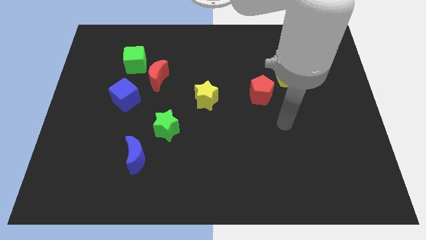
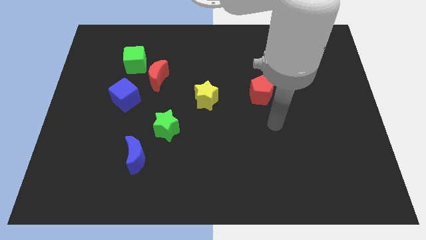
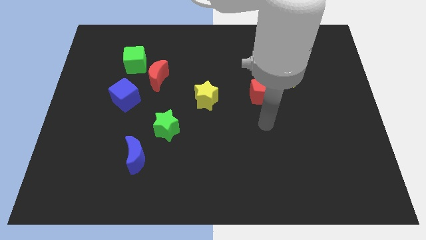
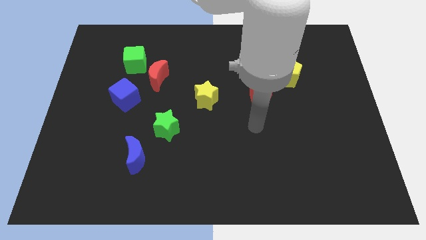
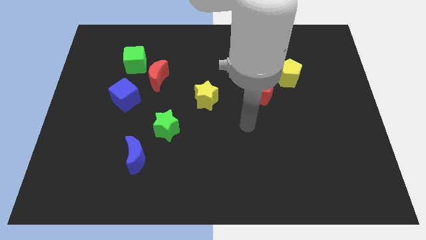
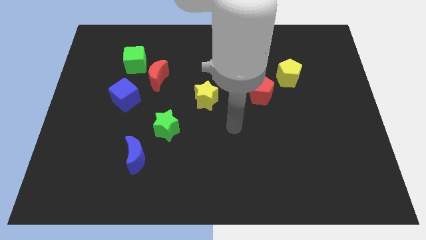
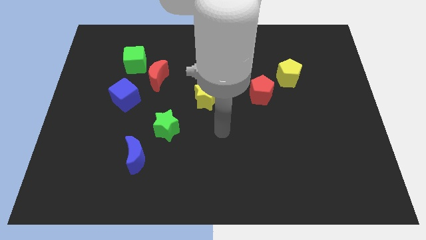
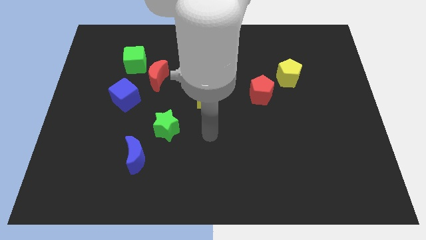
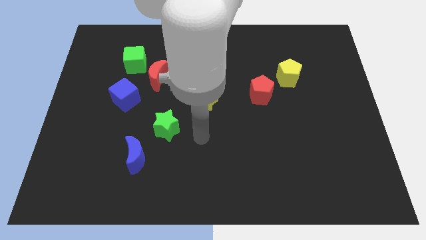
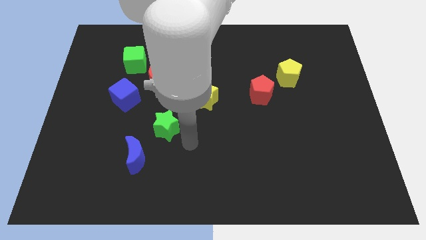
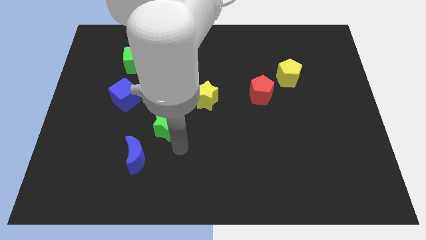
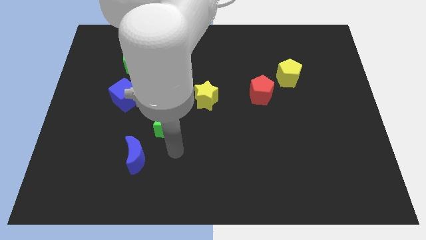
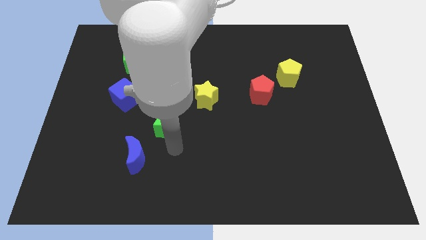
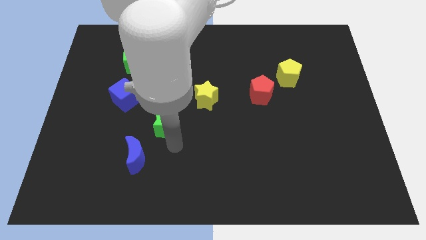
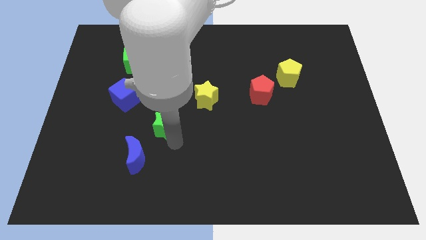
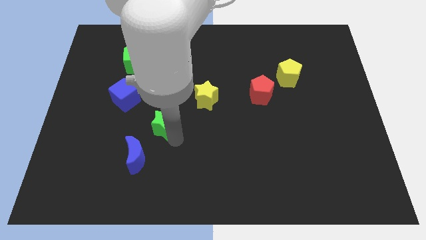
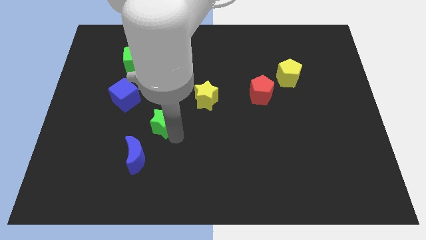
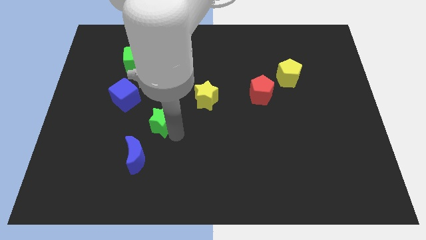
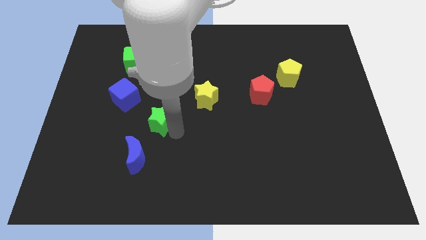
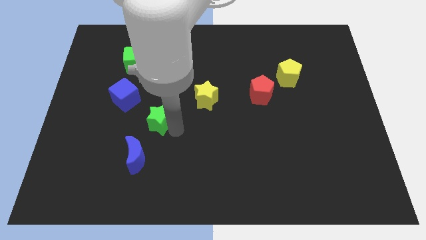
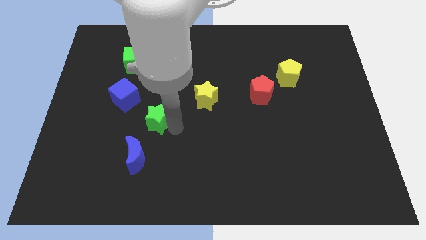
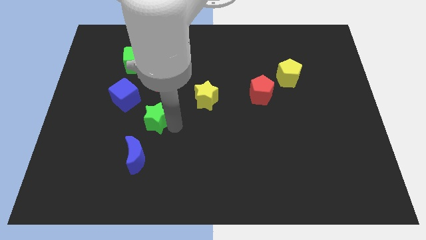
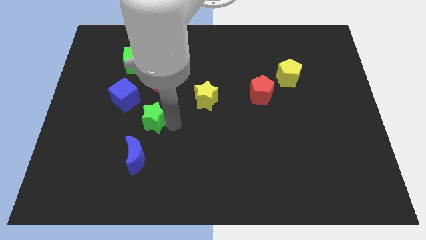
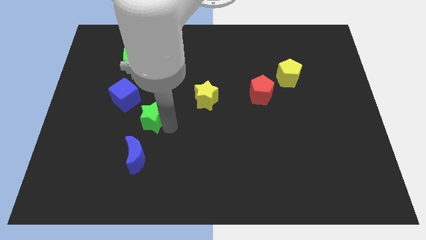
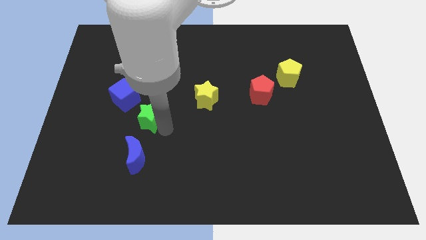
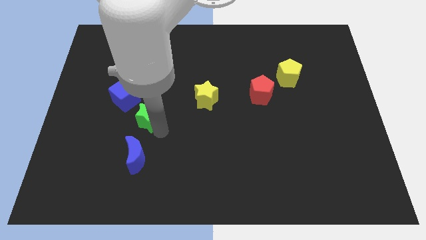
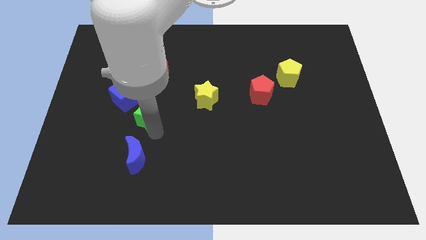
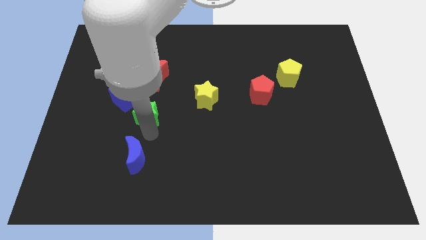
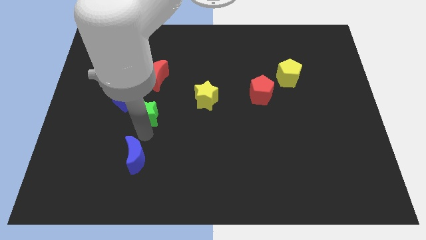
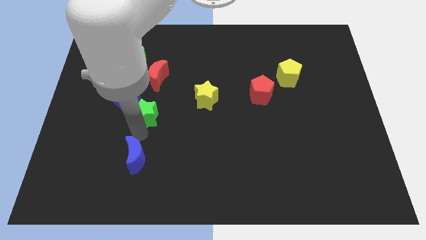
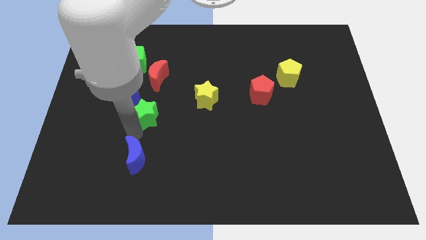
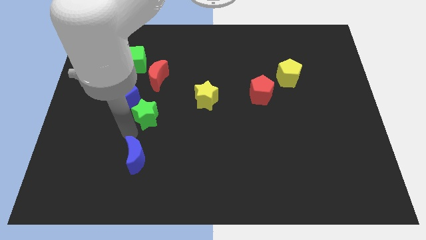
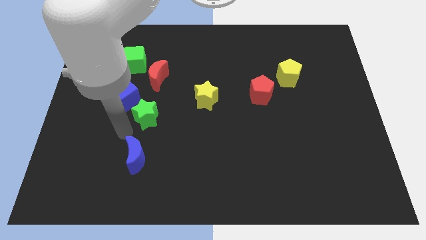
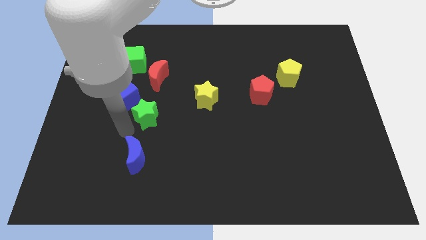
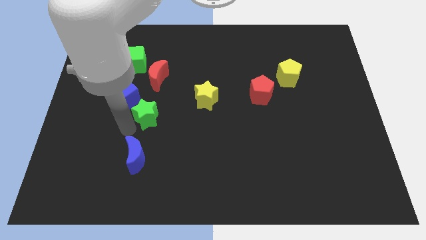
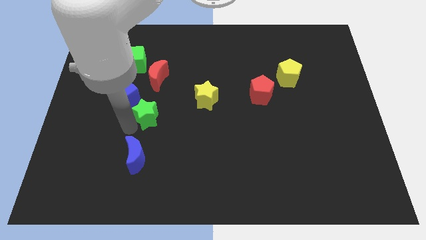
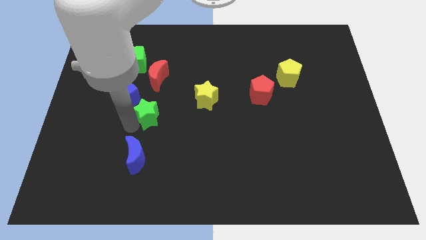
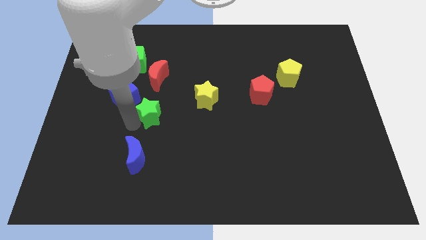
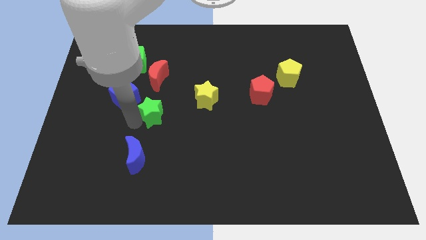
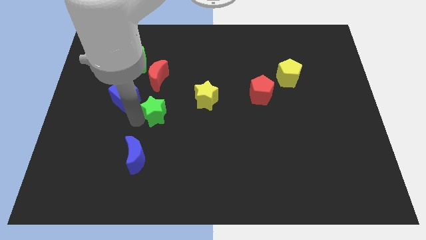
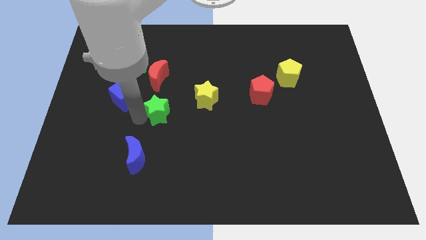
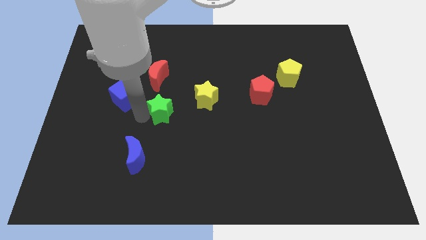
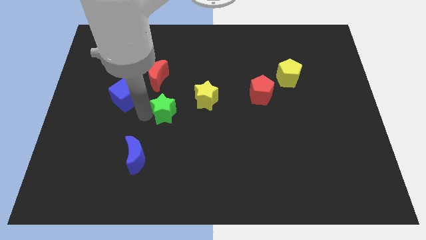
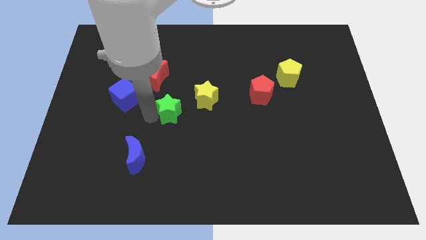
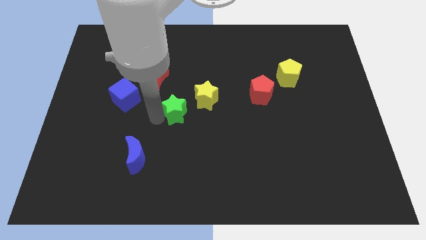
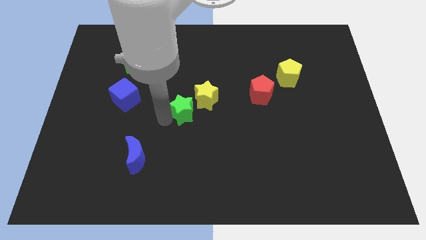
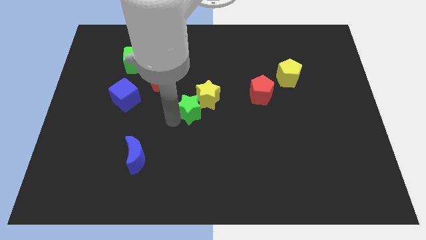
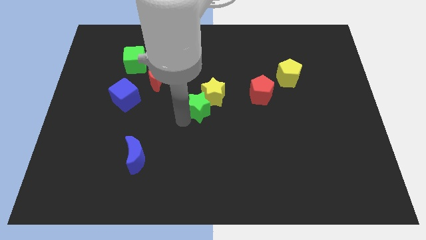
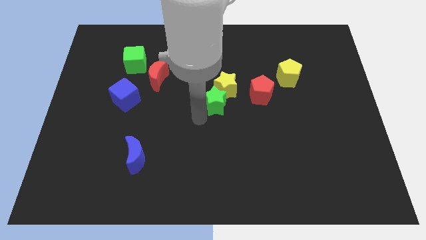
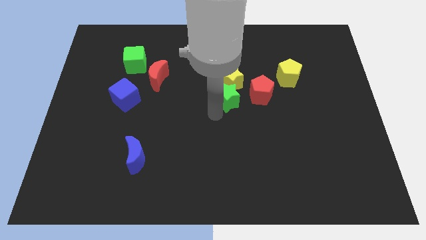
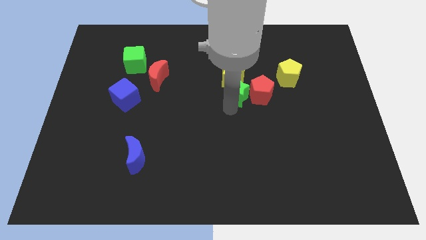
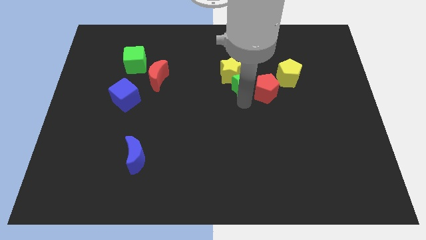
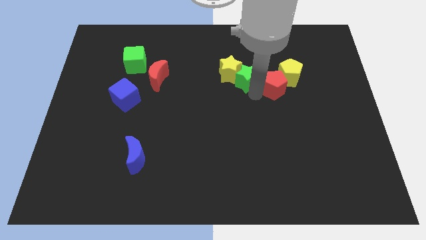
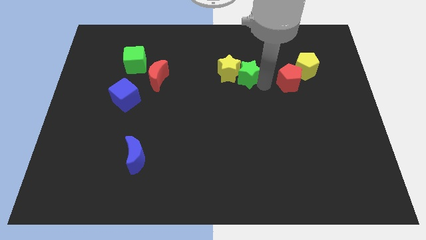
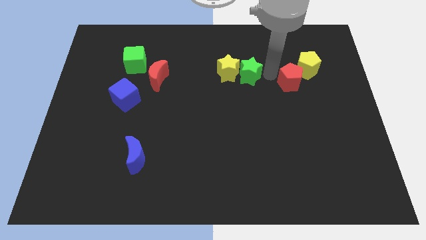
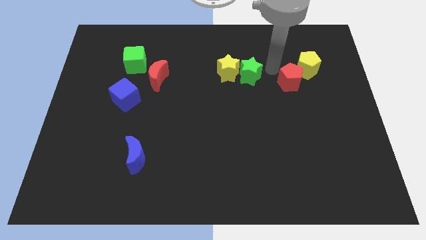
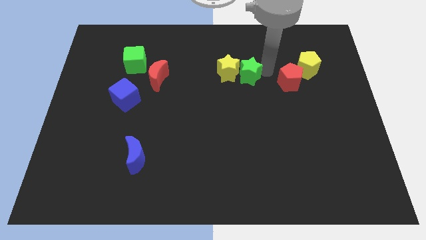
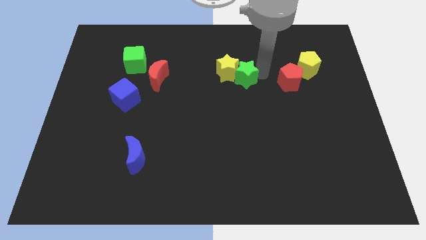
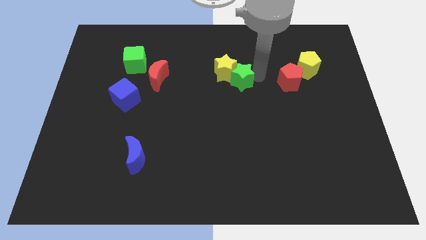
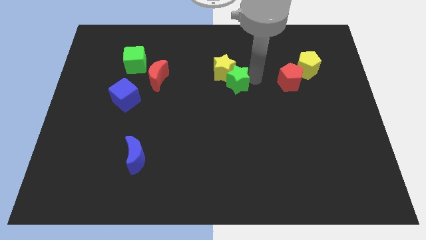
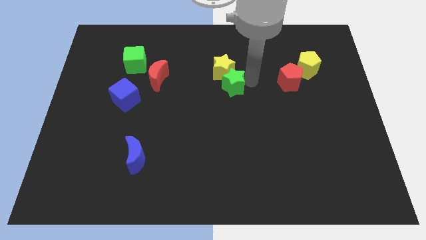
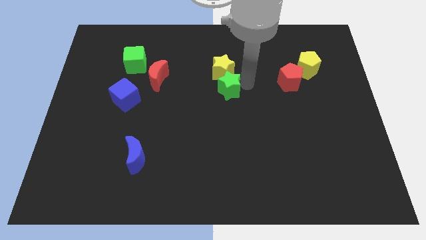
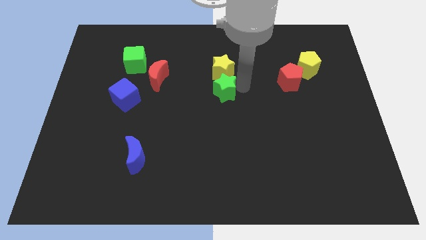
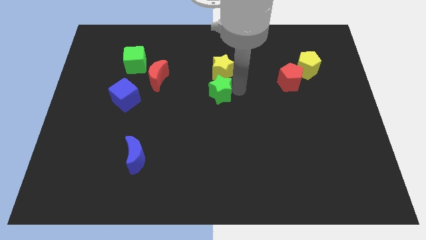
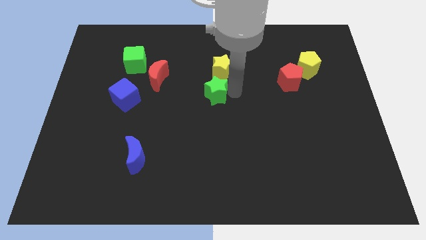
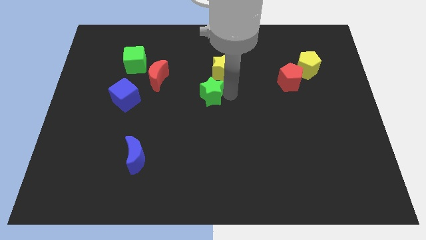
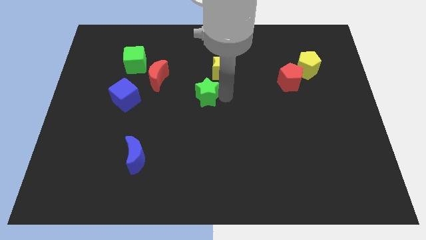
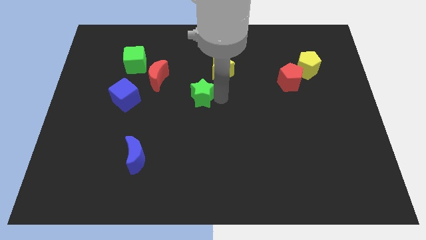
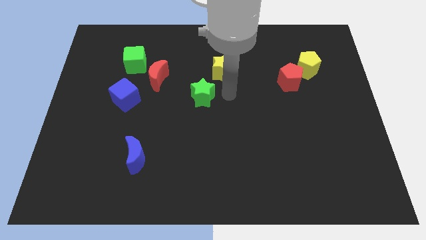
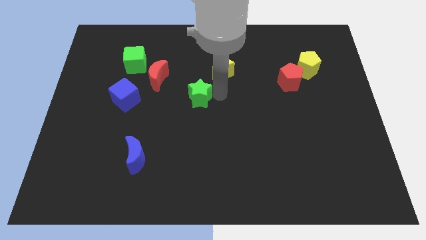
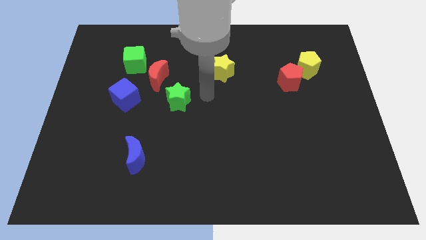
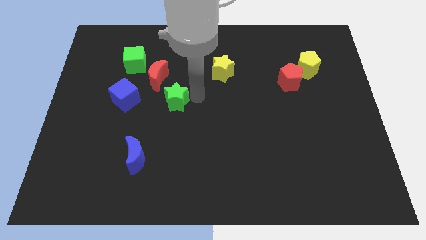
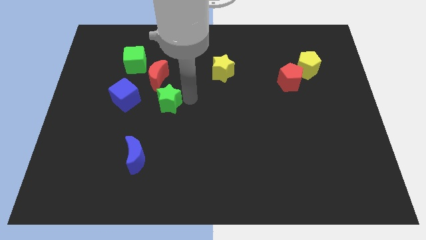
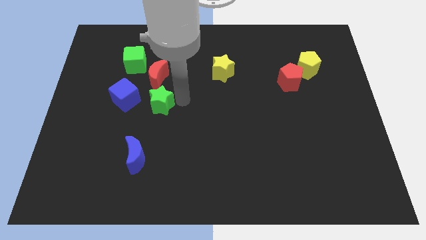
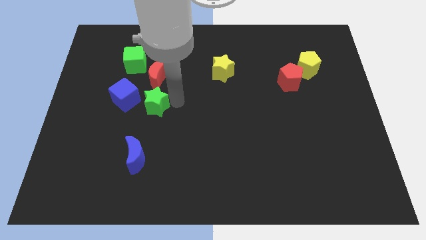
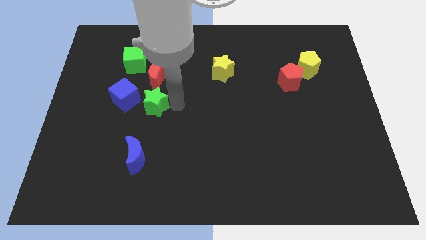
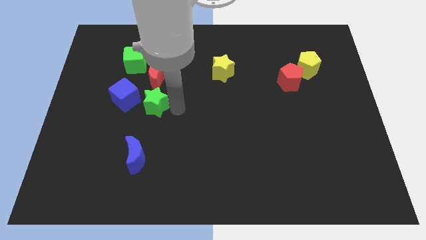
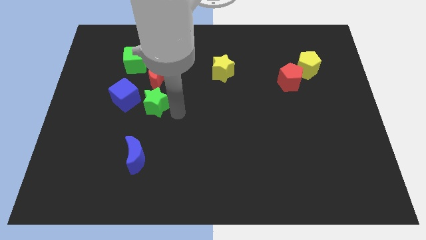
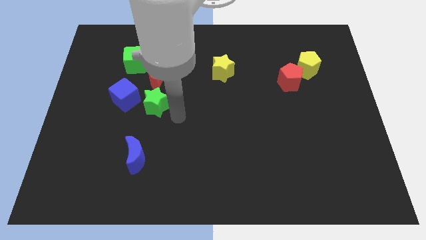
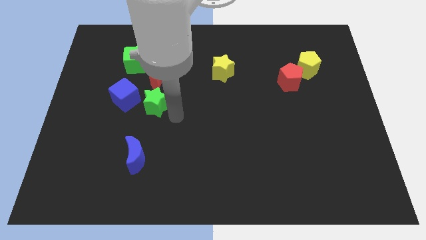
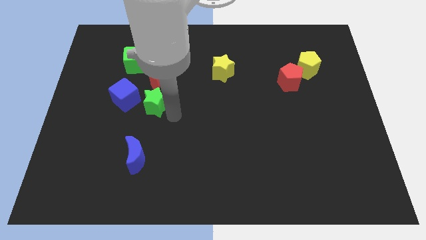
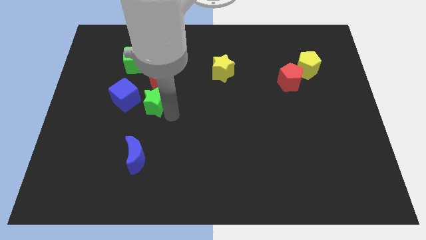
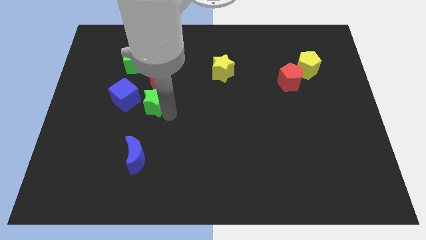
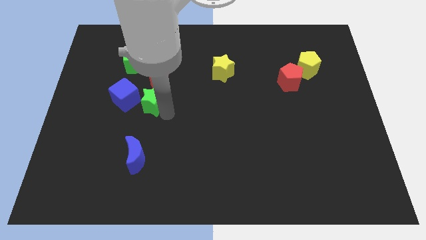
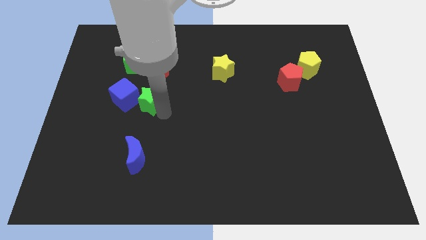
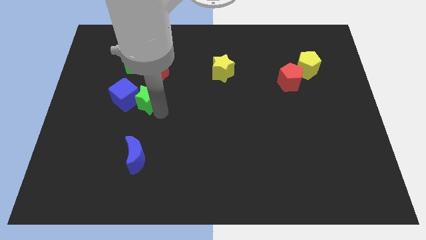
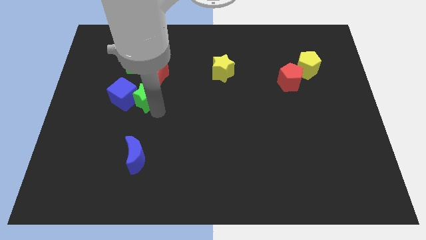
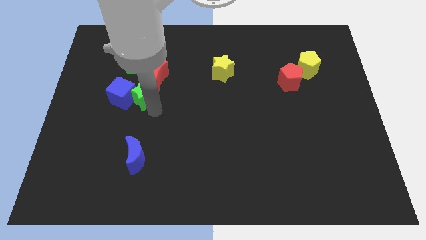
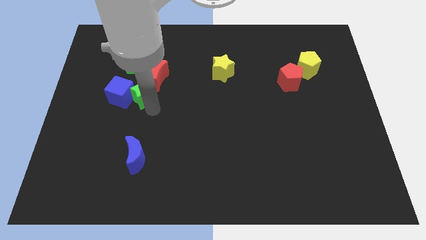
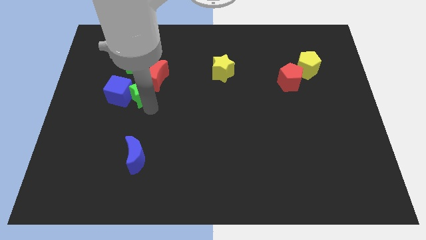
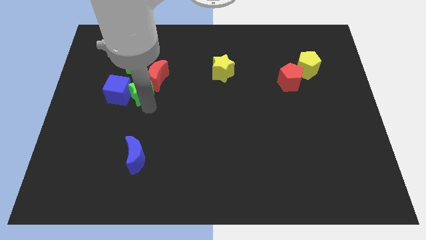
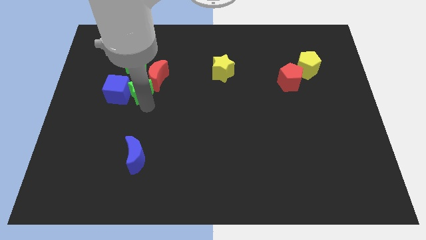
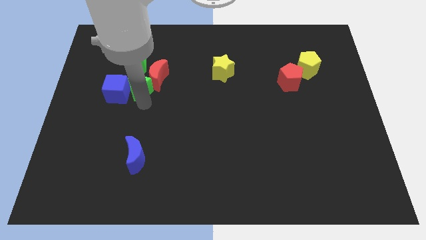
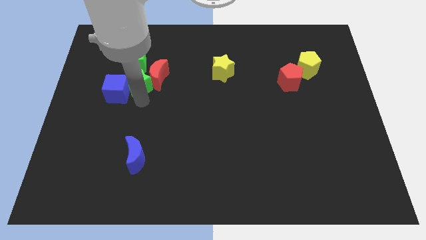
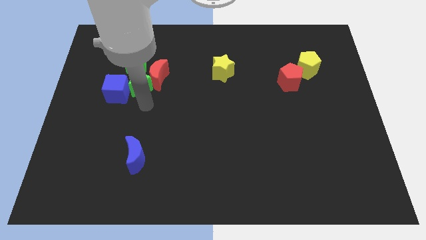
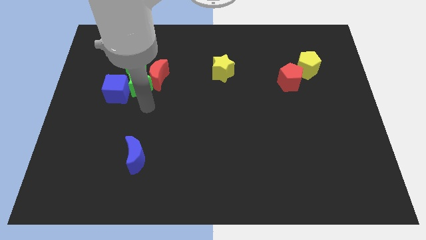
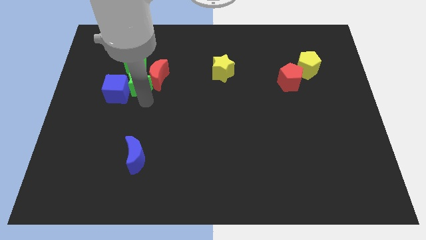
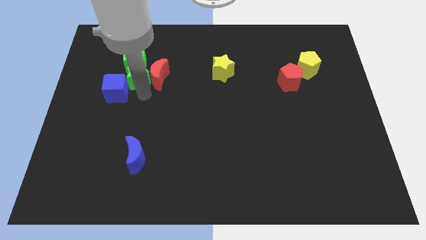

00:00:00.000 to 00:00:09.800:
put the green star to the green cube
